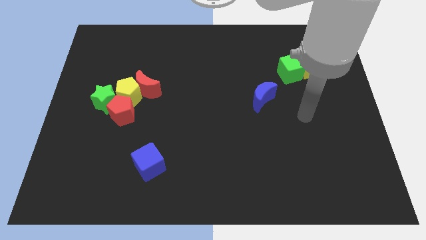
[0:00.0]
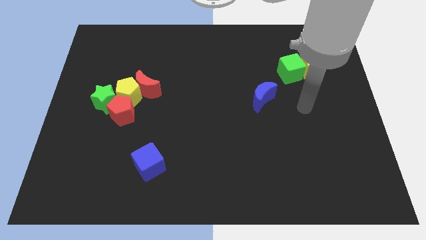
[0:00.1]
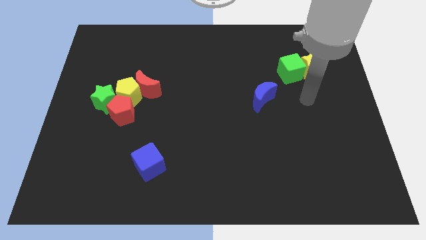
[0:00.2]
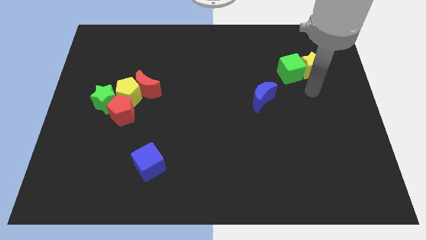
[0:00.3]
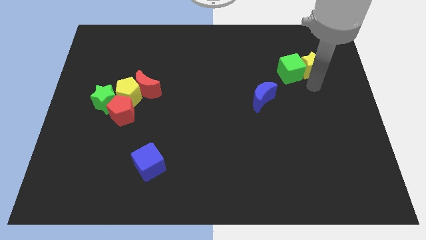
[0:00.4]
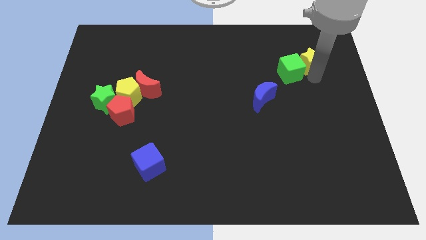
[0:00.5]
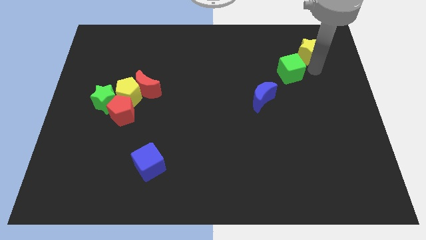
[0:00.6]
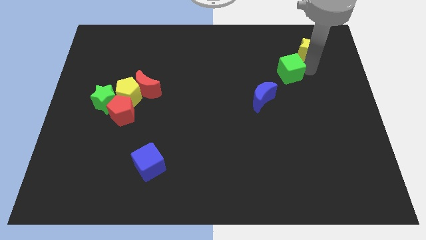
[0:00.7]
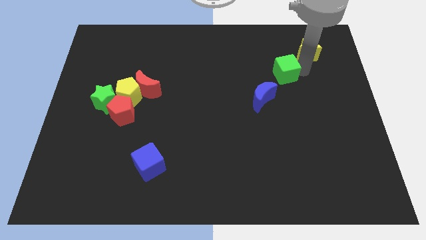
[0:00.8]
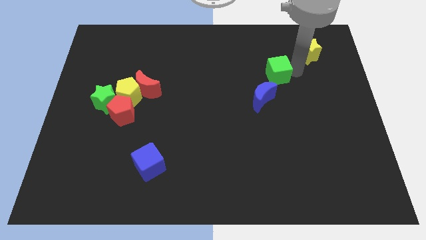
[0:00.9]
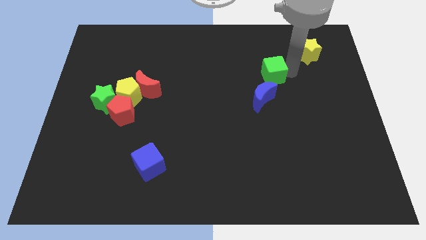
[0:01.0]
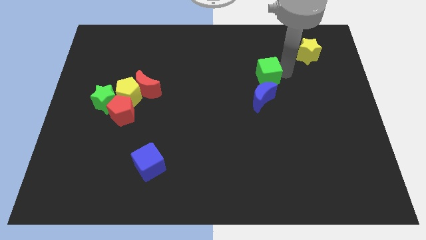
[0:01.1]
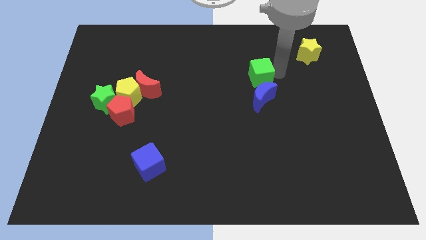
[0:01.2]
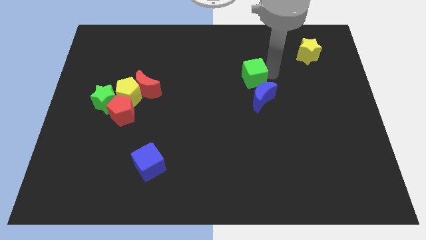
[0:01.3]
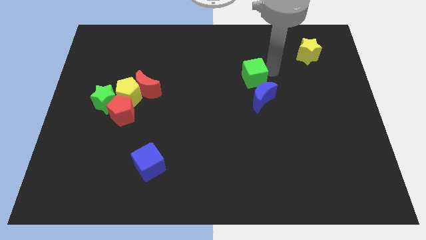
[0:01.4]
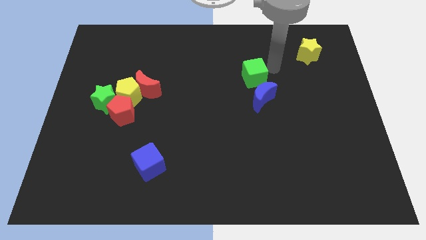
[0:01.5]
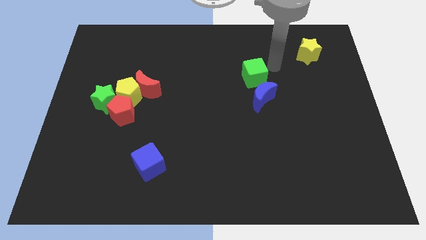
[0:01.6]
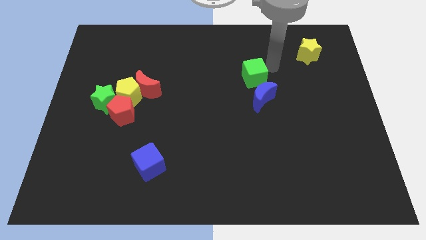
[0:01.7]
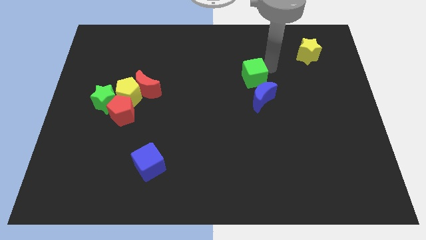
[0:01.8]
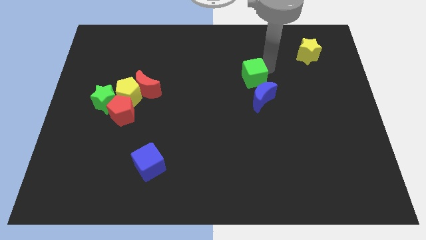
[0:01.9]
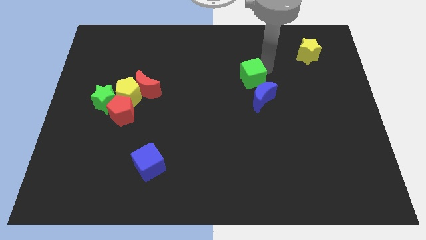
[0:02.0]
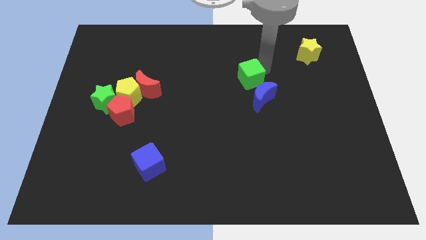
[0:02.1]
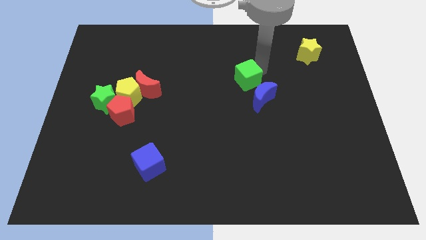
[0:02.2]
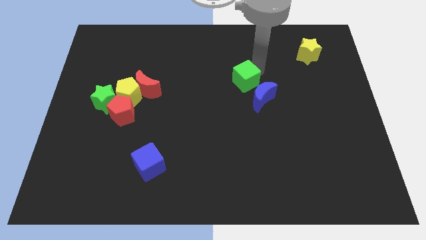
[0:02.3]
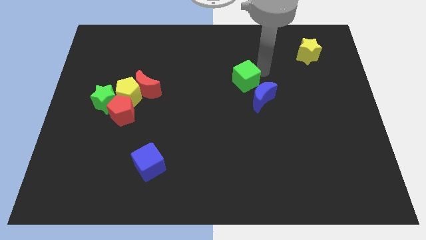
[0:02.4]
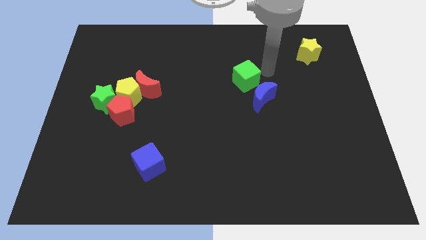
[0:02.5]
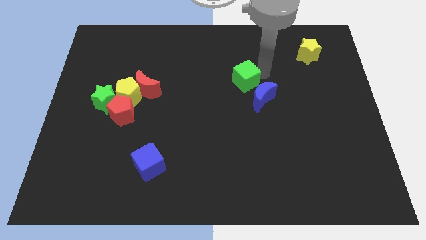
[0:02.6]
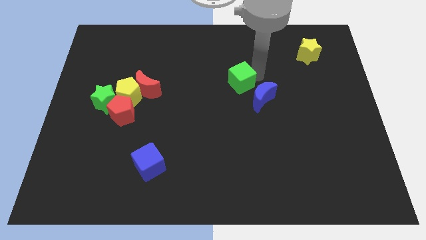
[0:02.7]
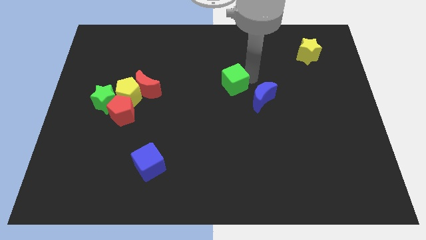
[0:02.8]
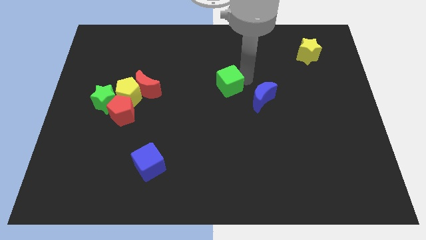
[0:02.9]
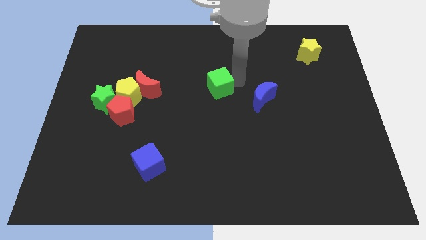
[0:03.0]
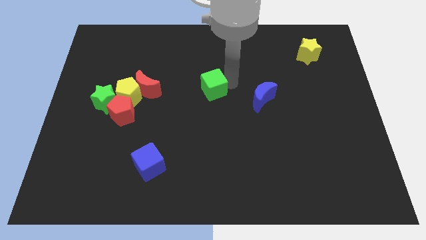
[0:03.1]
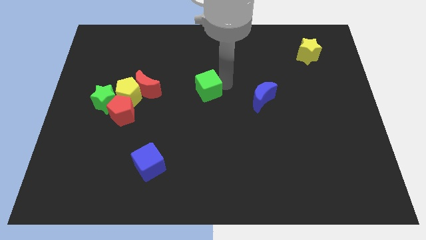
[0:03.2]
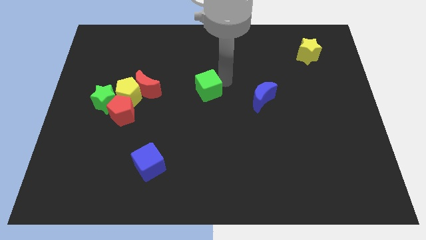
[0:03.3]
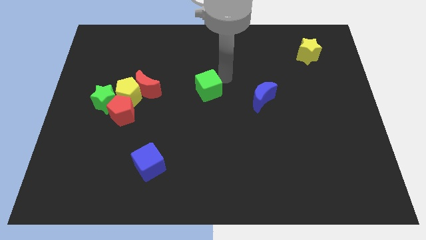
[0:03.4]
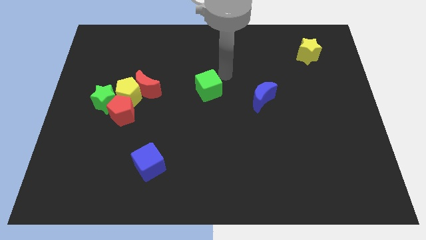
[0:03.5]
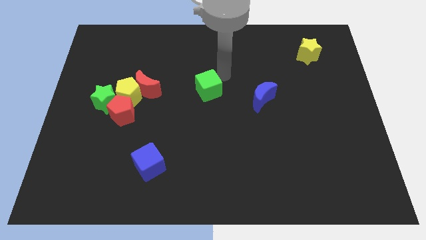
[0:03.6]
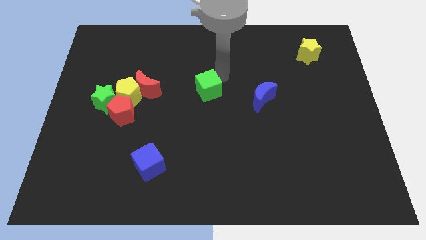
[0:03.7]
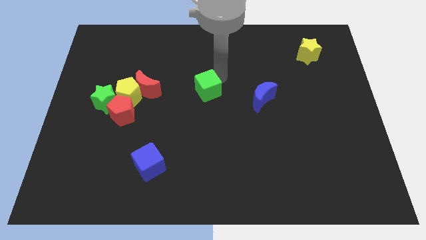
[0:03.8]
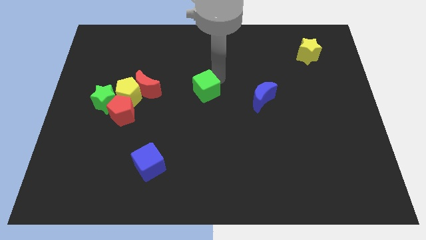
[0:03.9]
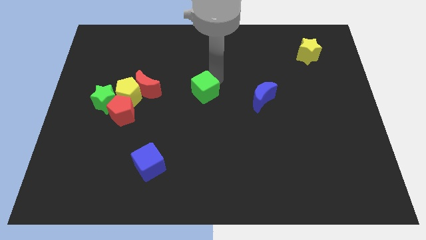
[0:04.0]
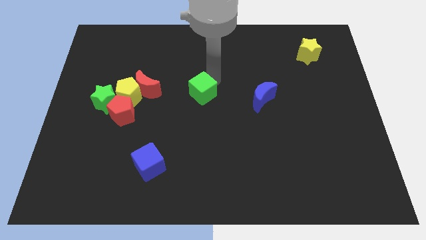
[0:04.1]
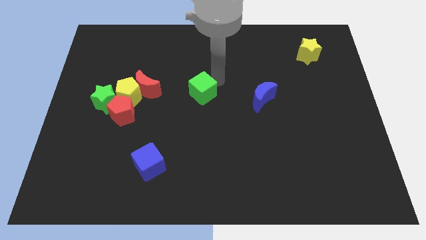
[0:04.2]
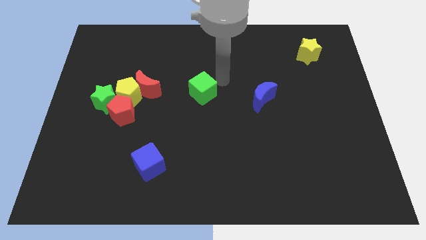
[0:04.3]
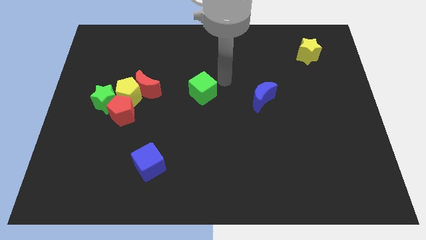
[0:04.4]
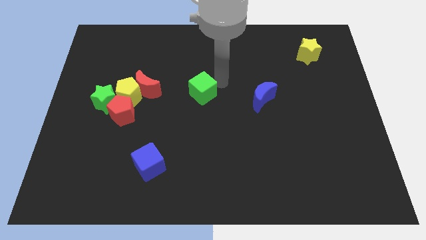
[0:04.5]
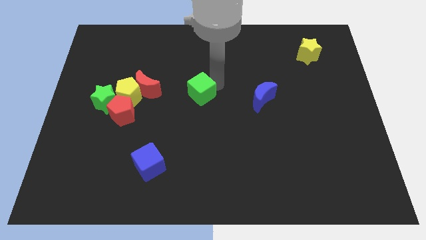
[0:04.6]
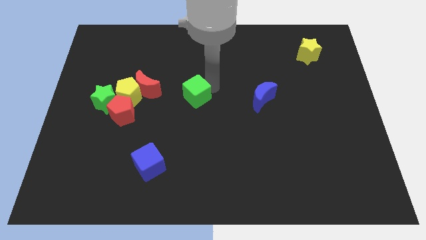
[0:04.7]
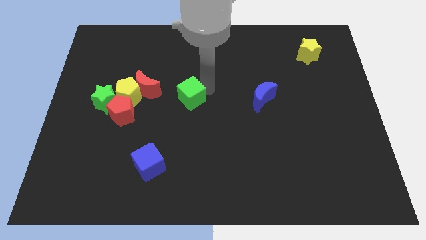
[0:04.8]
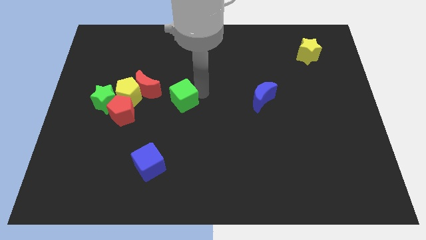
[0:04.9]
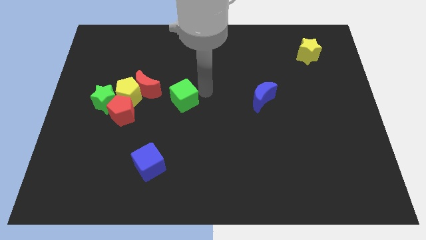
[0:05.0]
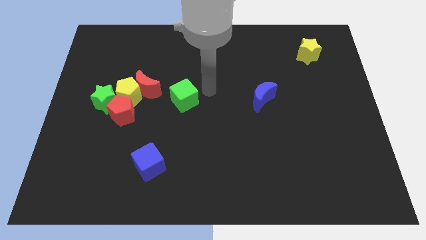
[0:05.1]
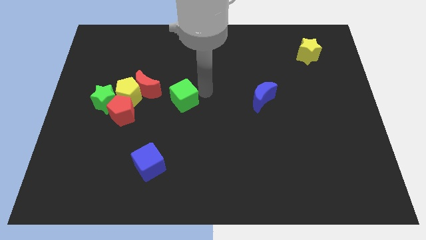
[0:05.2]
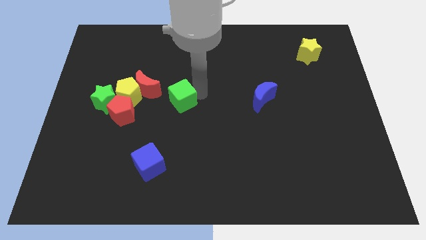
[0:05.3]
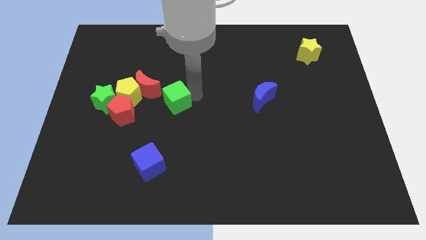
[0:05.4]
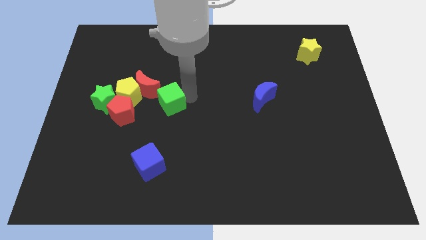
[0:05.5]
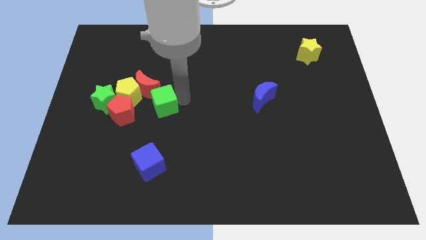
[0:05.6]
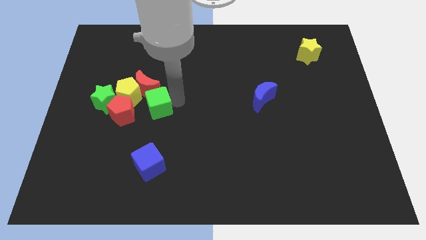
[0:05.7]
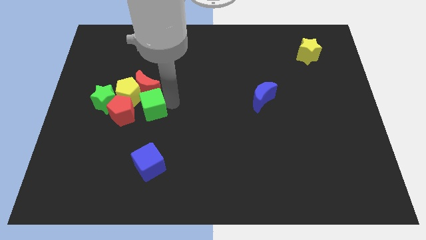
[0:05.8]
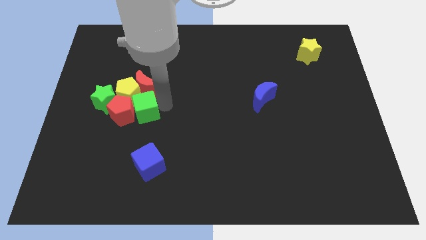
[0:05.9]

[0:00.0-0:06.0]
push the green cube to the red pentagon

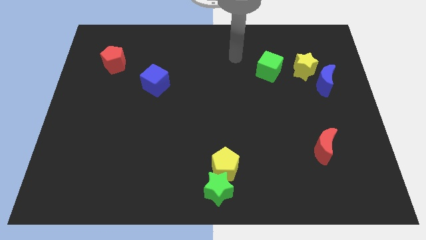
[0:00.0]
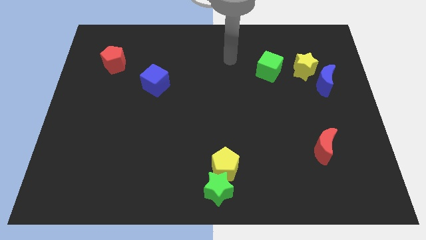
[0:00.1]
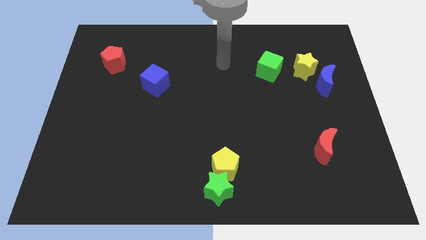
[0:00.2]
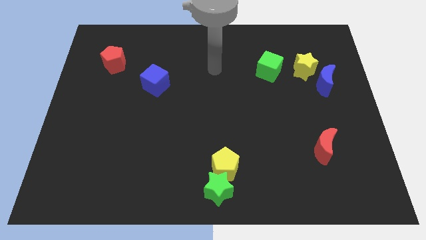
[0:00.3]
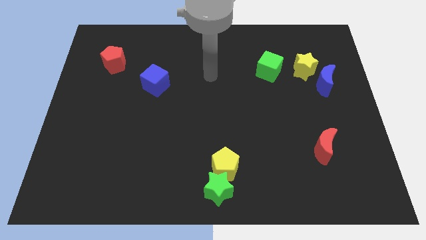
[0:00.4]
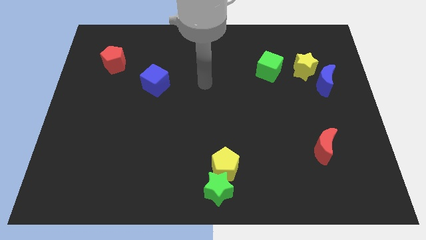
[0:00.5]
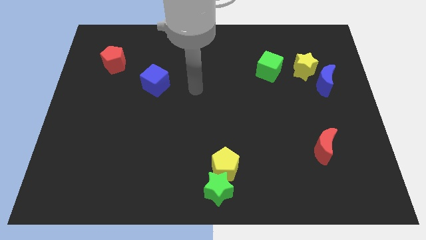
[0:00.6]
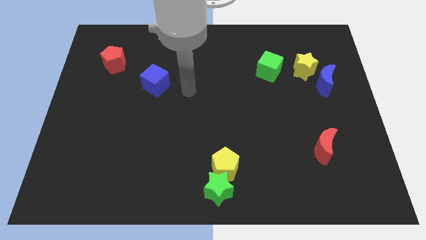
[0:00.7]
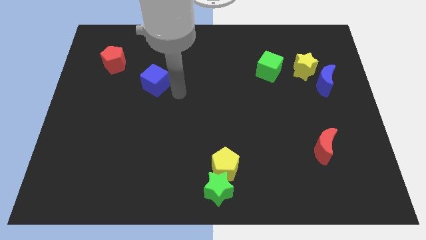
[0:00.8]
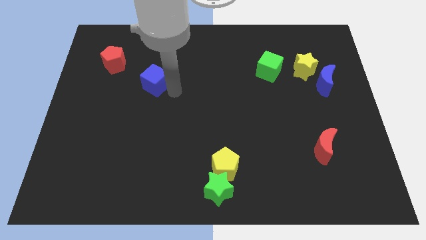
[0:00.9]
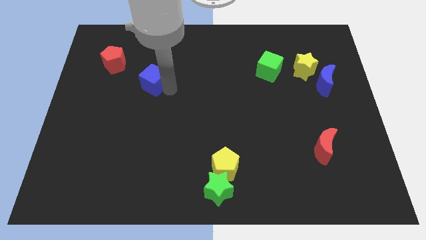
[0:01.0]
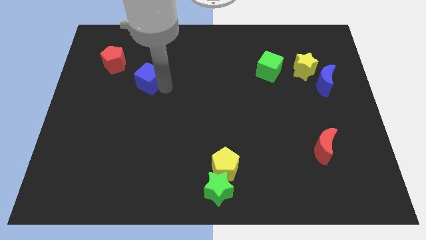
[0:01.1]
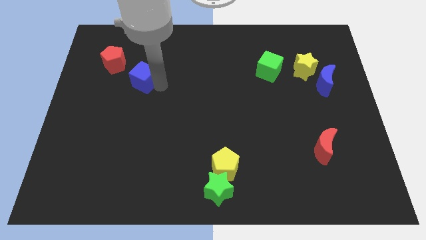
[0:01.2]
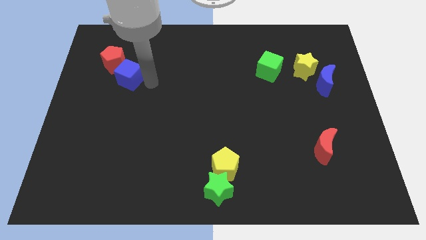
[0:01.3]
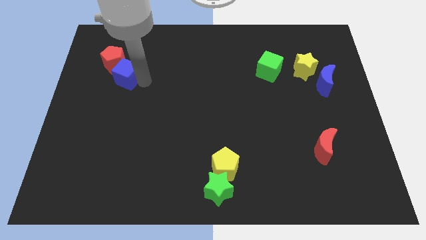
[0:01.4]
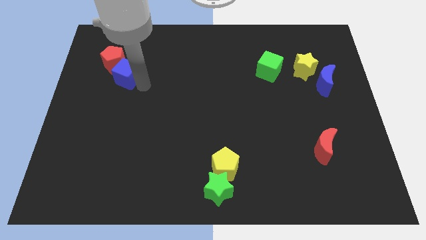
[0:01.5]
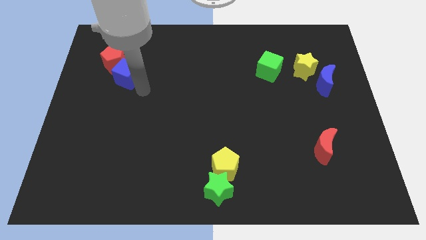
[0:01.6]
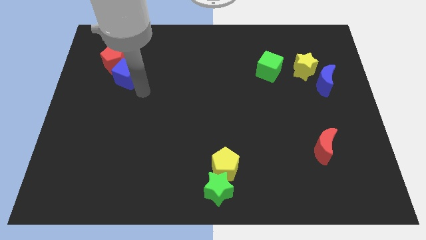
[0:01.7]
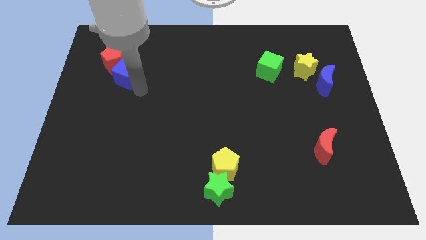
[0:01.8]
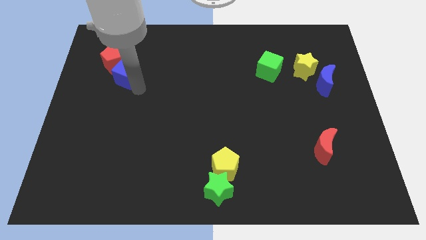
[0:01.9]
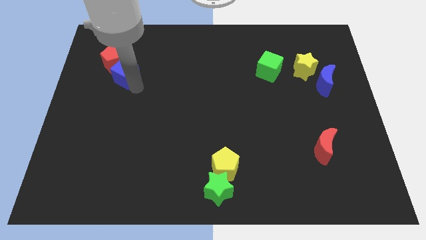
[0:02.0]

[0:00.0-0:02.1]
push the blue cube towards the red pentagon
